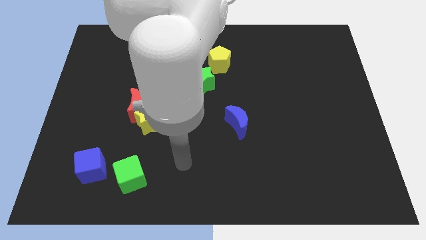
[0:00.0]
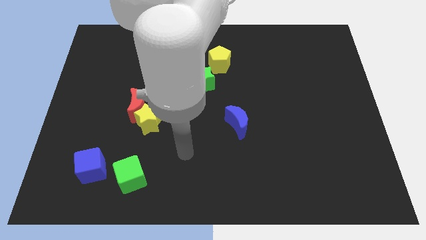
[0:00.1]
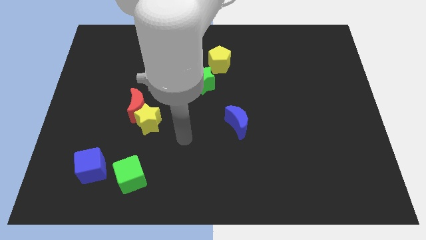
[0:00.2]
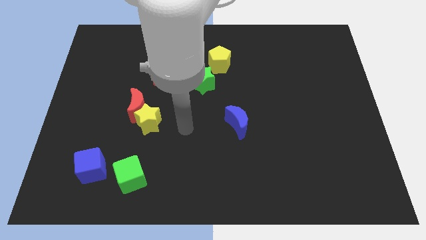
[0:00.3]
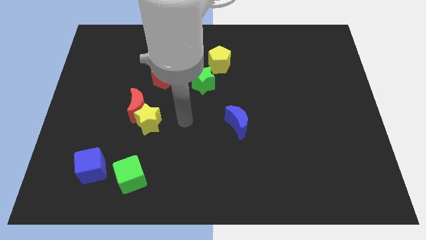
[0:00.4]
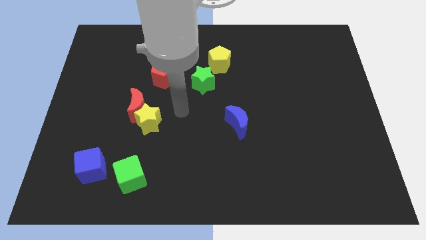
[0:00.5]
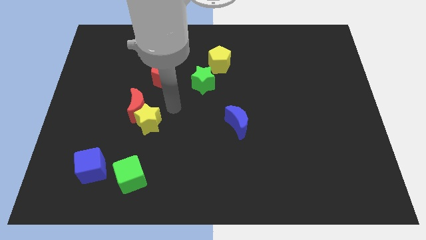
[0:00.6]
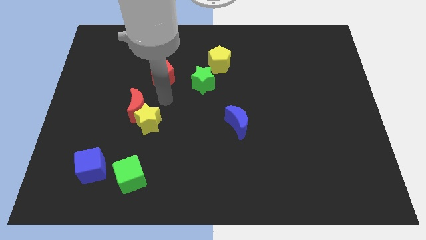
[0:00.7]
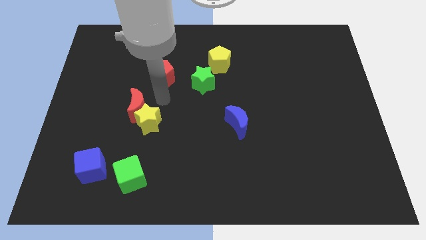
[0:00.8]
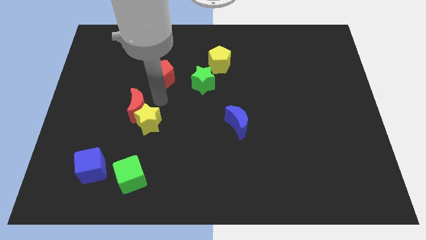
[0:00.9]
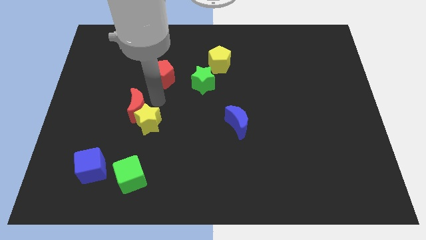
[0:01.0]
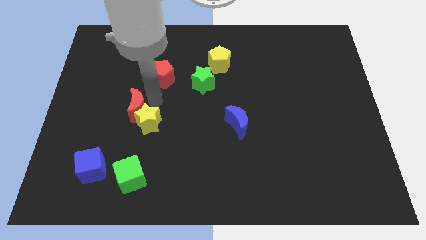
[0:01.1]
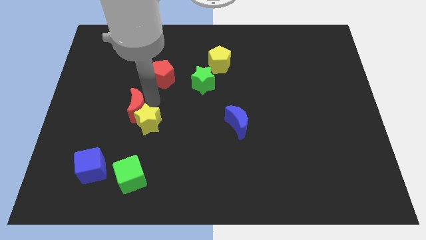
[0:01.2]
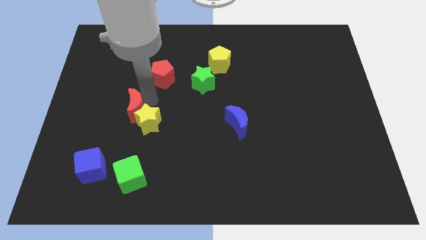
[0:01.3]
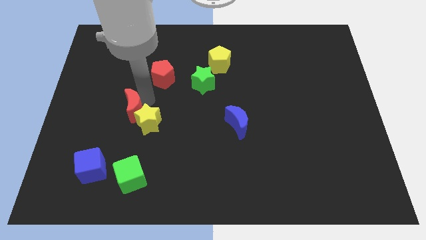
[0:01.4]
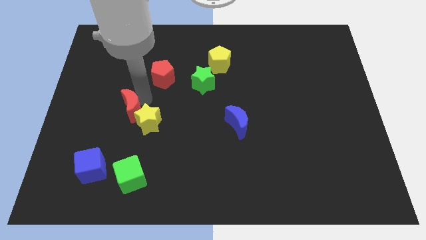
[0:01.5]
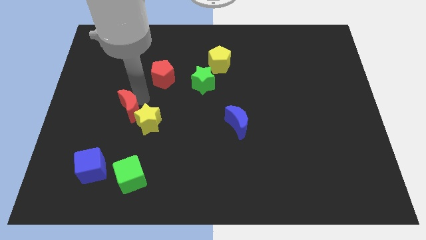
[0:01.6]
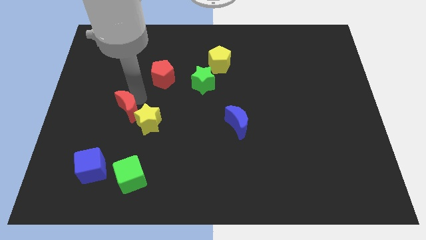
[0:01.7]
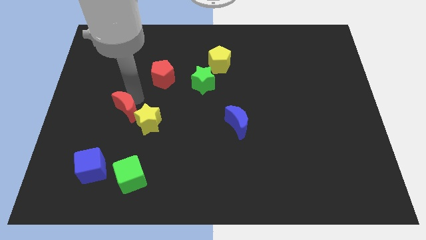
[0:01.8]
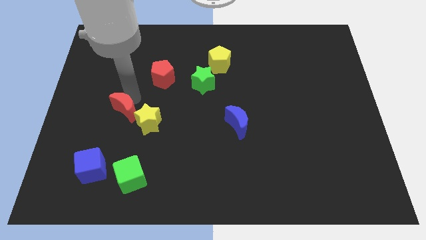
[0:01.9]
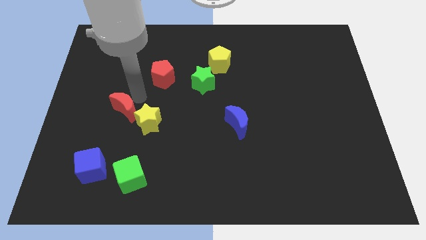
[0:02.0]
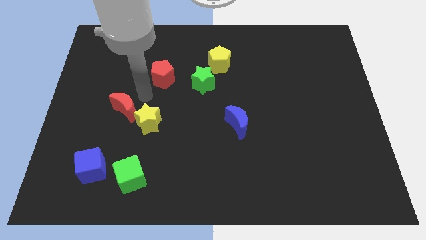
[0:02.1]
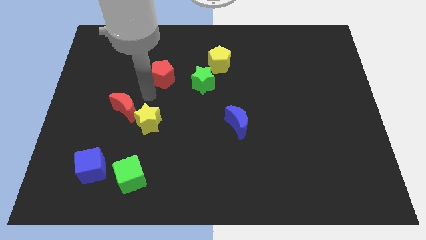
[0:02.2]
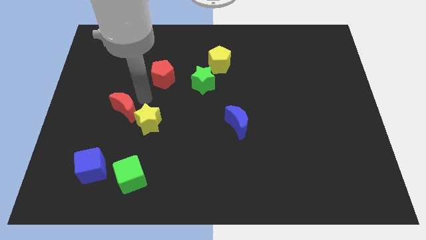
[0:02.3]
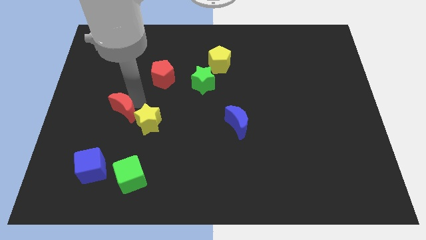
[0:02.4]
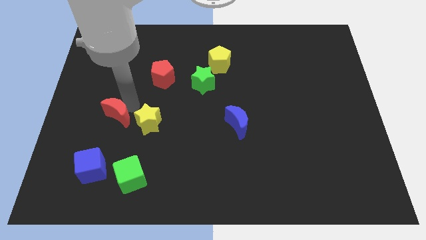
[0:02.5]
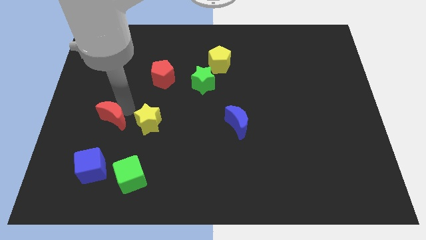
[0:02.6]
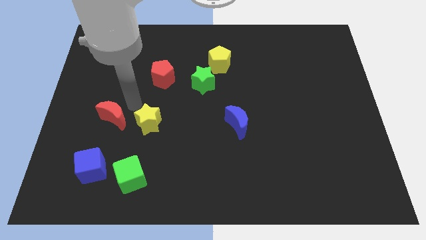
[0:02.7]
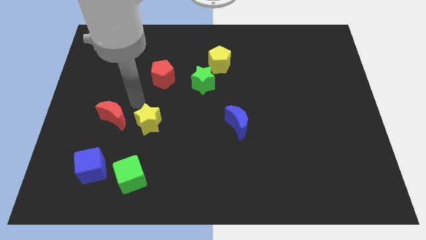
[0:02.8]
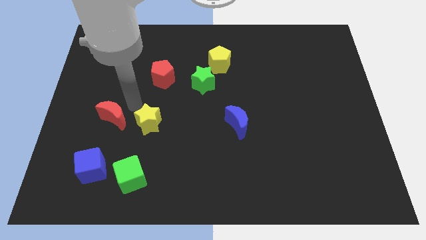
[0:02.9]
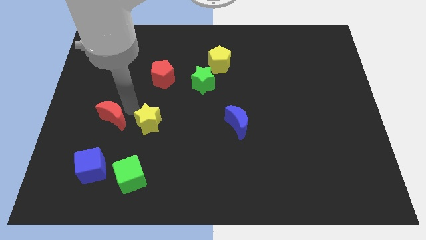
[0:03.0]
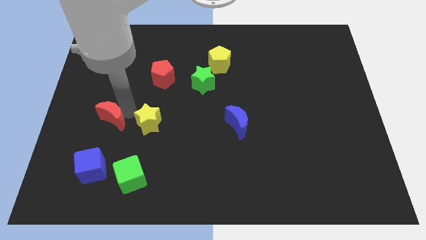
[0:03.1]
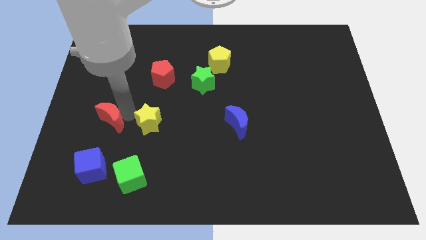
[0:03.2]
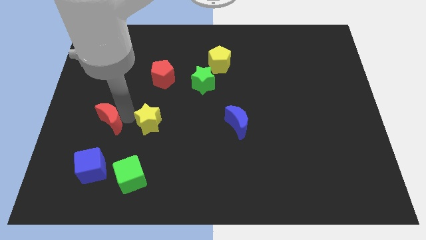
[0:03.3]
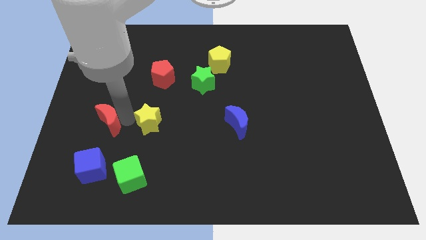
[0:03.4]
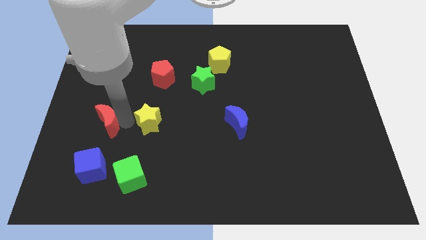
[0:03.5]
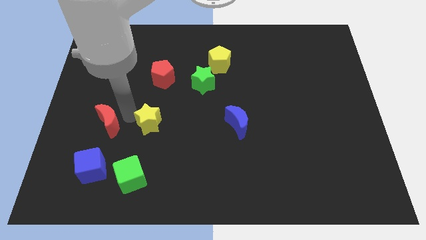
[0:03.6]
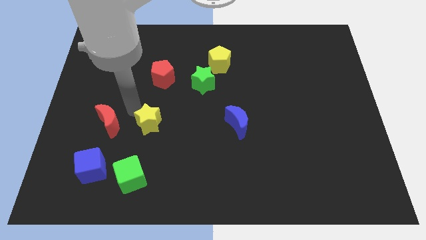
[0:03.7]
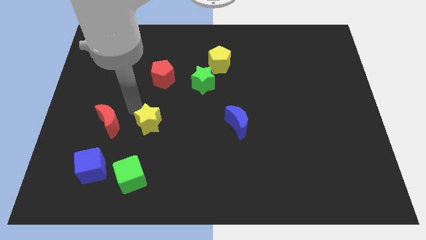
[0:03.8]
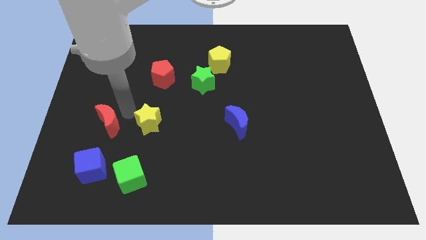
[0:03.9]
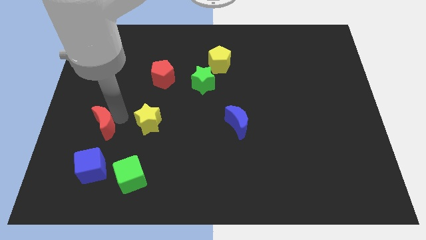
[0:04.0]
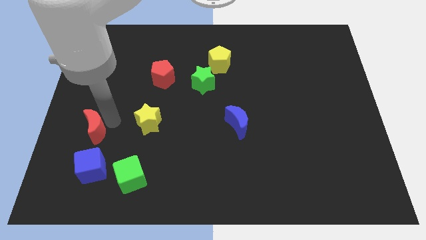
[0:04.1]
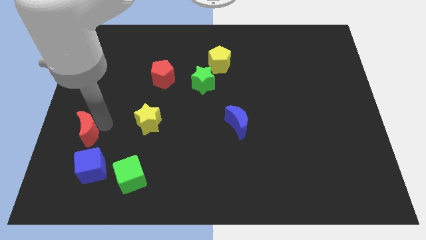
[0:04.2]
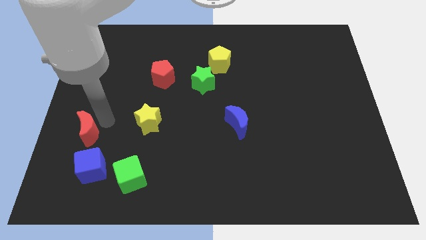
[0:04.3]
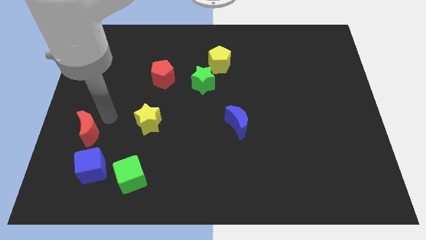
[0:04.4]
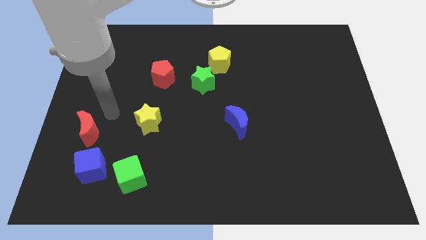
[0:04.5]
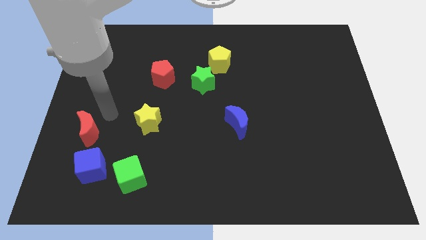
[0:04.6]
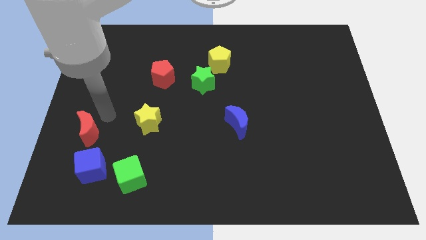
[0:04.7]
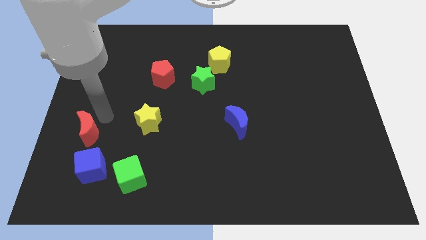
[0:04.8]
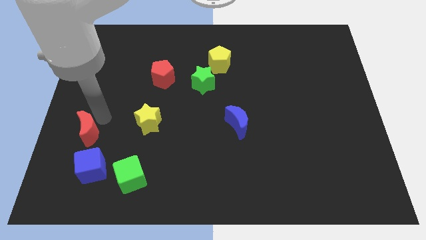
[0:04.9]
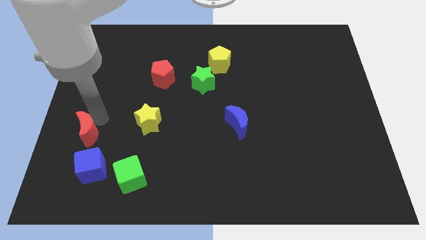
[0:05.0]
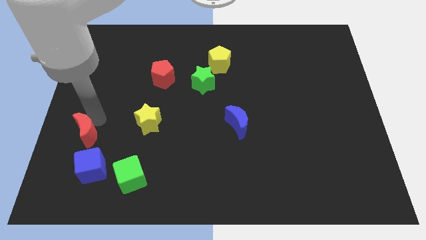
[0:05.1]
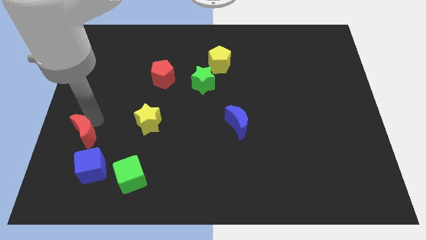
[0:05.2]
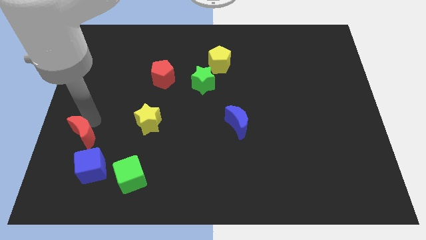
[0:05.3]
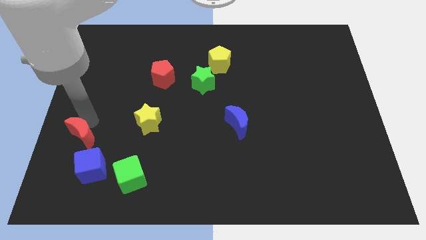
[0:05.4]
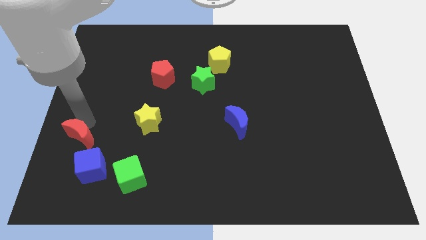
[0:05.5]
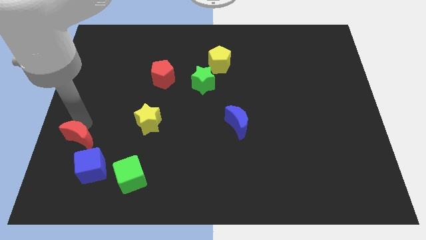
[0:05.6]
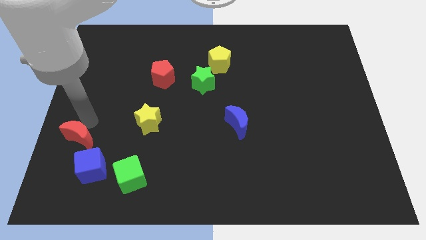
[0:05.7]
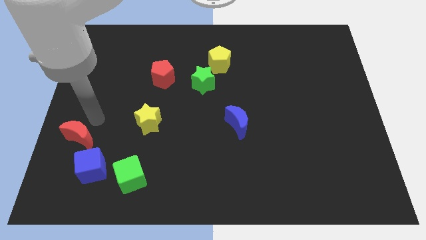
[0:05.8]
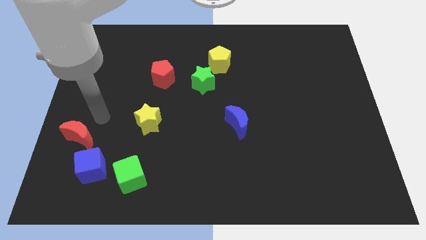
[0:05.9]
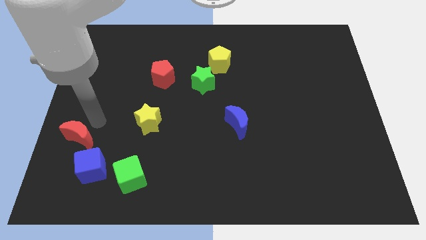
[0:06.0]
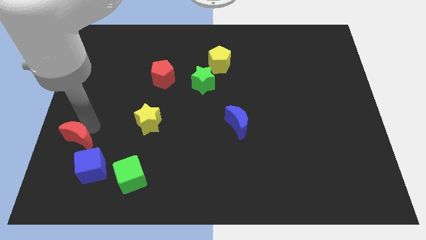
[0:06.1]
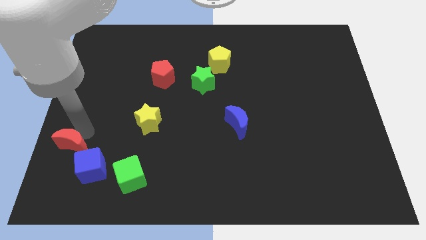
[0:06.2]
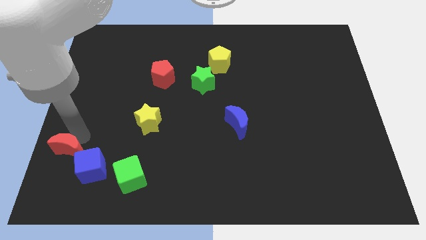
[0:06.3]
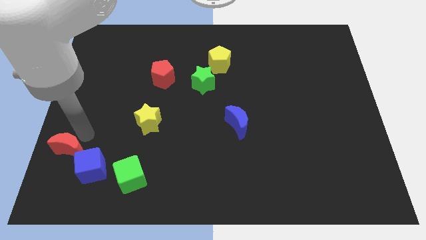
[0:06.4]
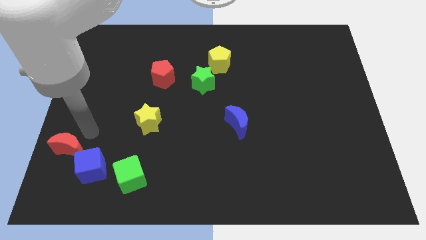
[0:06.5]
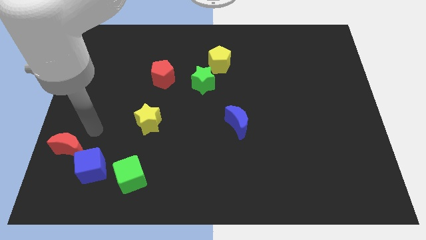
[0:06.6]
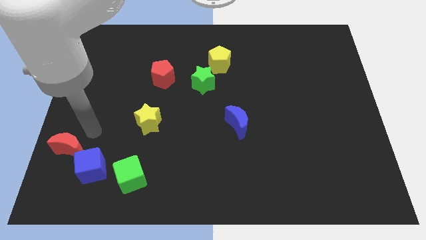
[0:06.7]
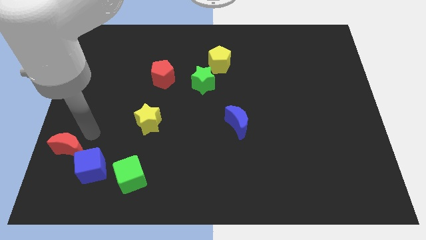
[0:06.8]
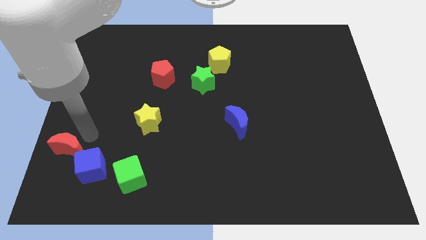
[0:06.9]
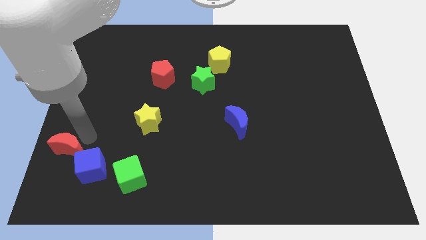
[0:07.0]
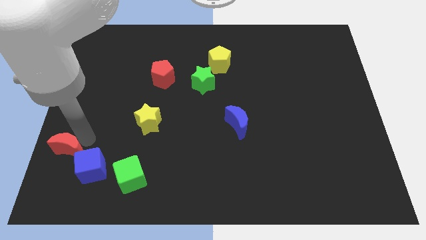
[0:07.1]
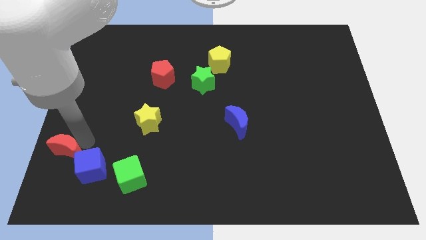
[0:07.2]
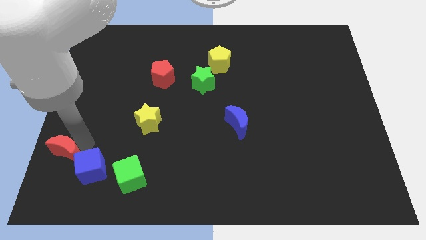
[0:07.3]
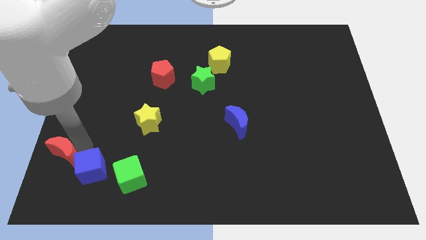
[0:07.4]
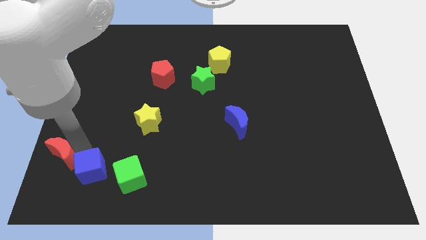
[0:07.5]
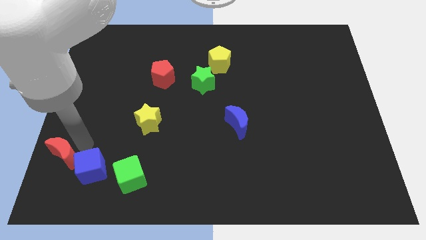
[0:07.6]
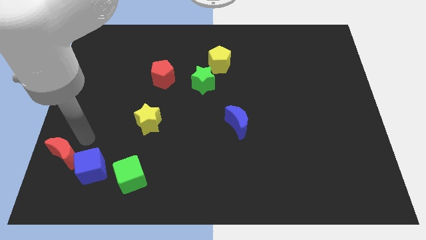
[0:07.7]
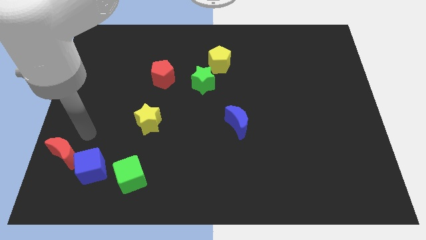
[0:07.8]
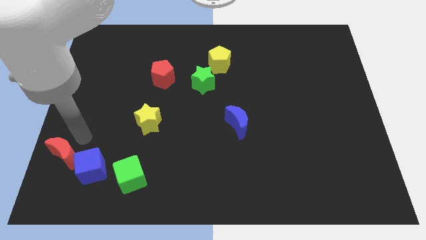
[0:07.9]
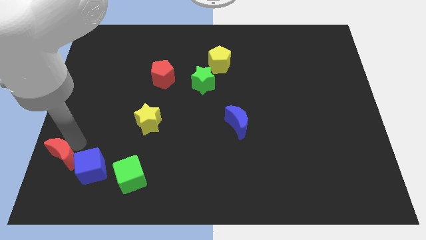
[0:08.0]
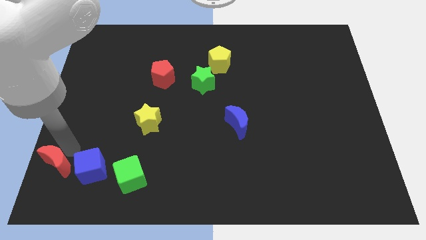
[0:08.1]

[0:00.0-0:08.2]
slide the red moon to the bottom left corner
